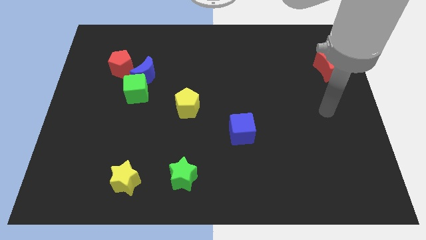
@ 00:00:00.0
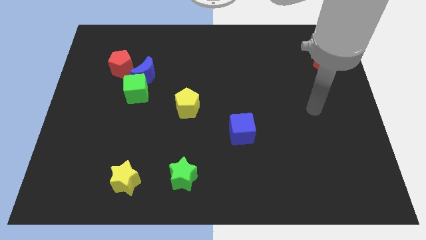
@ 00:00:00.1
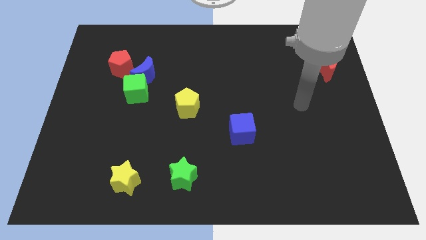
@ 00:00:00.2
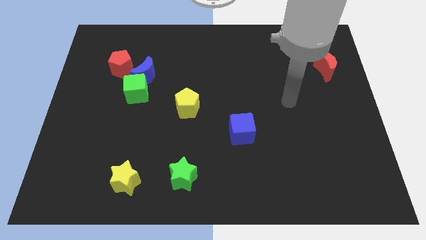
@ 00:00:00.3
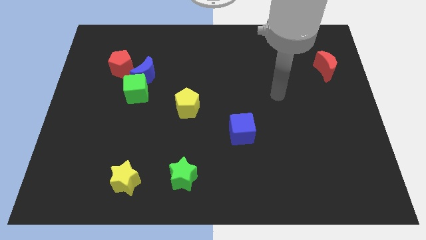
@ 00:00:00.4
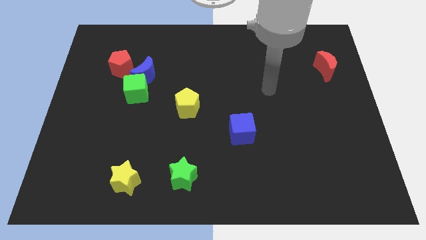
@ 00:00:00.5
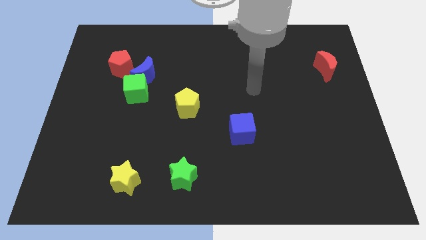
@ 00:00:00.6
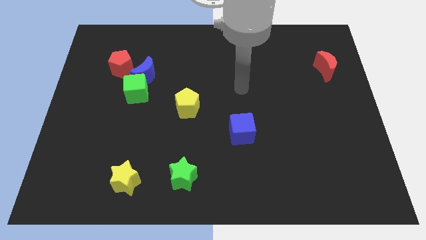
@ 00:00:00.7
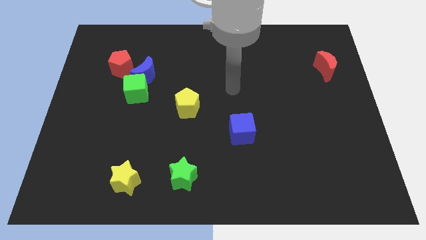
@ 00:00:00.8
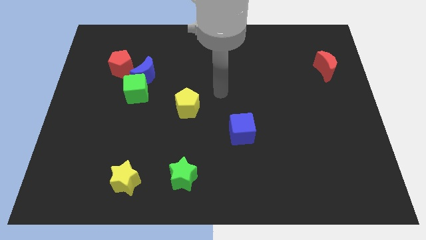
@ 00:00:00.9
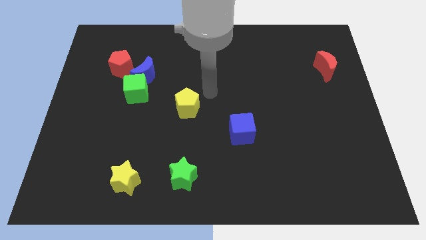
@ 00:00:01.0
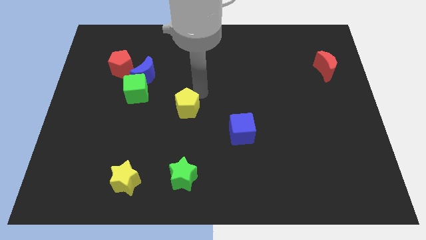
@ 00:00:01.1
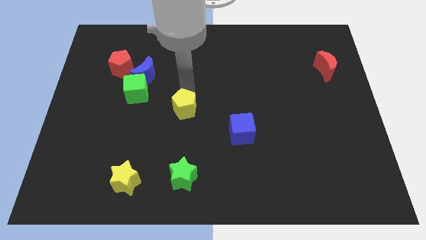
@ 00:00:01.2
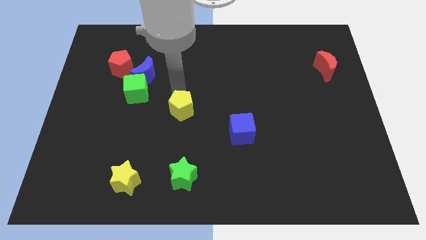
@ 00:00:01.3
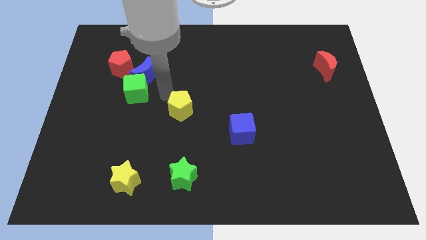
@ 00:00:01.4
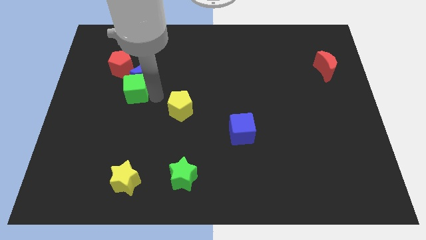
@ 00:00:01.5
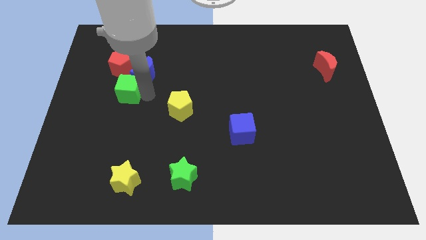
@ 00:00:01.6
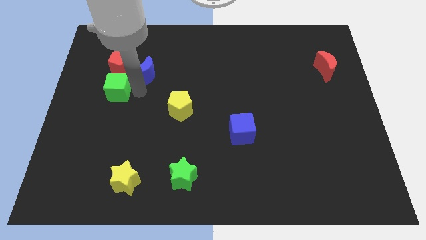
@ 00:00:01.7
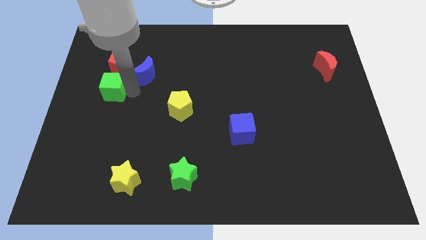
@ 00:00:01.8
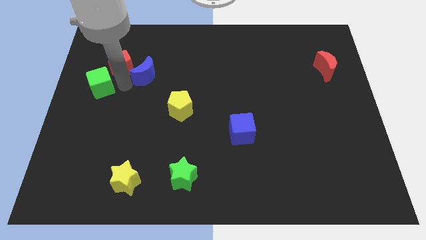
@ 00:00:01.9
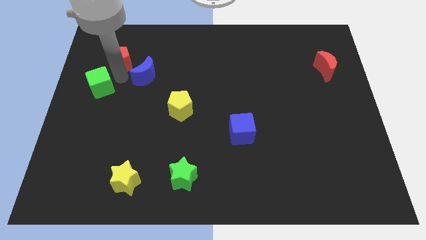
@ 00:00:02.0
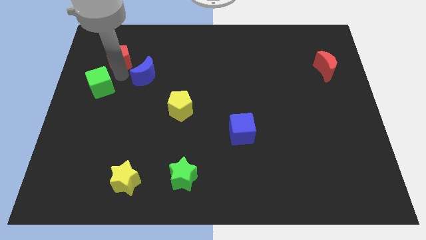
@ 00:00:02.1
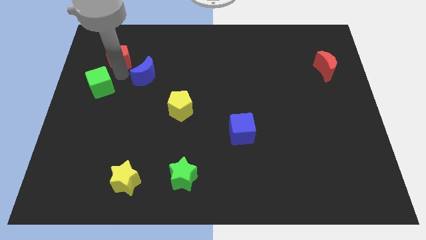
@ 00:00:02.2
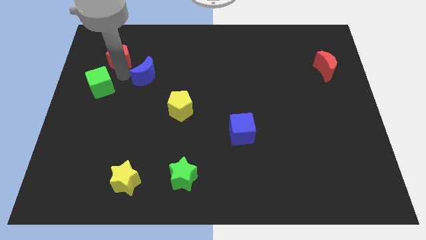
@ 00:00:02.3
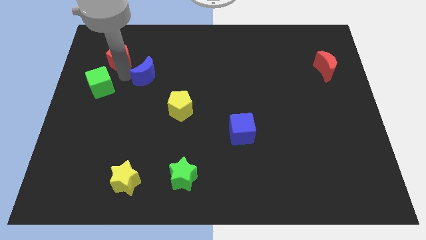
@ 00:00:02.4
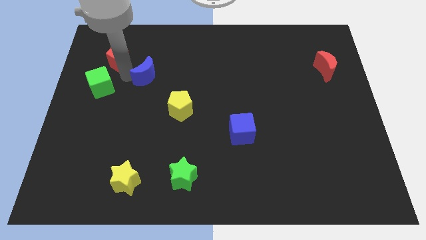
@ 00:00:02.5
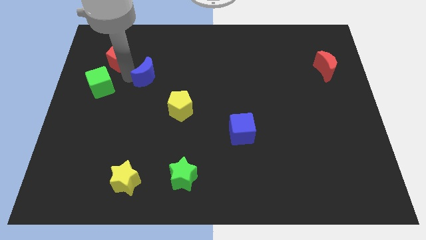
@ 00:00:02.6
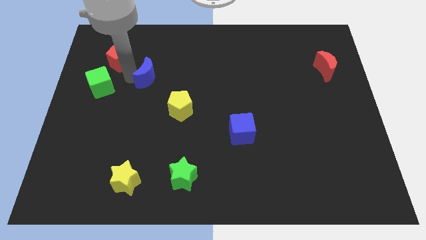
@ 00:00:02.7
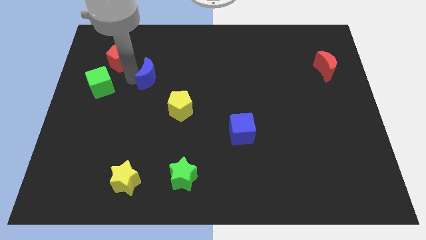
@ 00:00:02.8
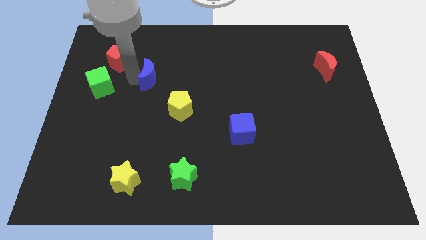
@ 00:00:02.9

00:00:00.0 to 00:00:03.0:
pull the blue moon apart from the green cube and red pentagon

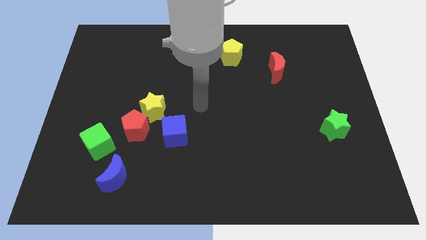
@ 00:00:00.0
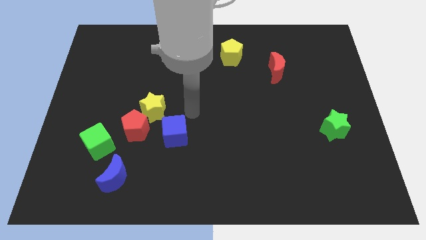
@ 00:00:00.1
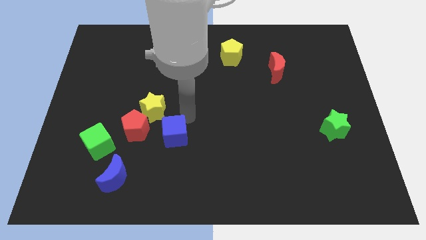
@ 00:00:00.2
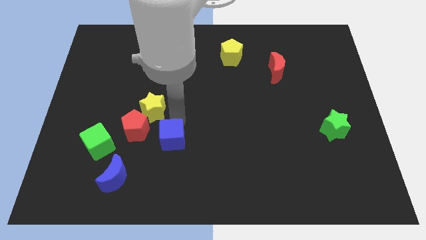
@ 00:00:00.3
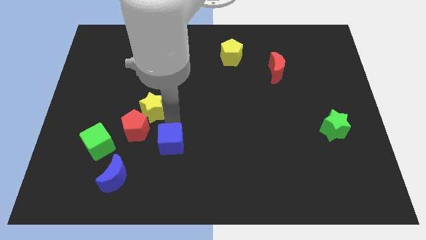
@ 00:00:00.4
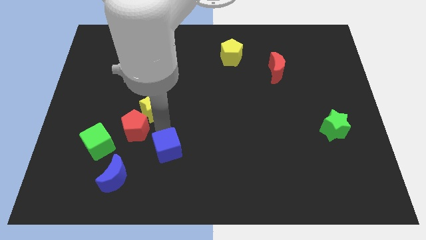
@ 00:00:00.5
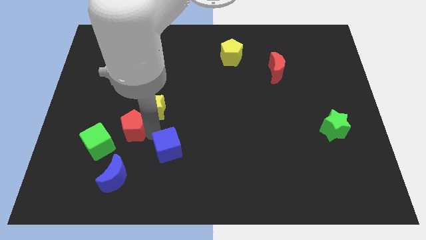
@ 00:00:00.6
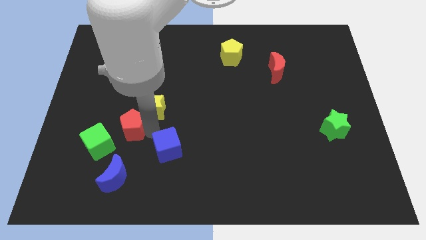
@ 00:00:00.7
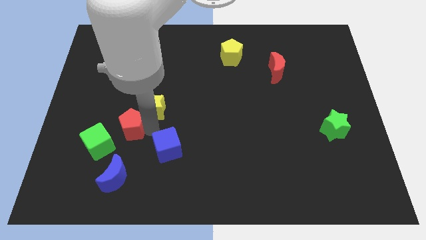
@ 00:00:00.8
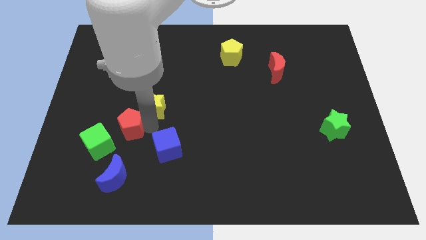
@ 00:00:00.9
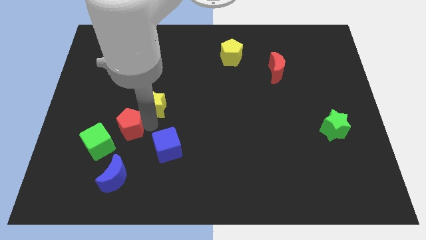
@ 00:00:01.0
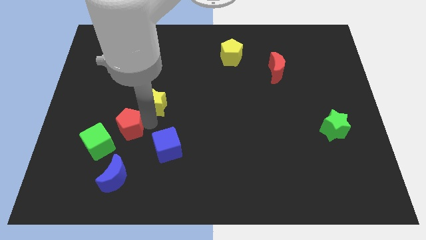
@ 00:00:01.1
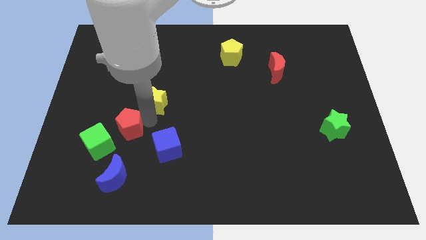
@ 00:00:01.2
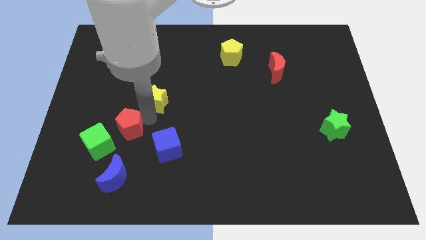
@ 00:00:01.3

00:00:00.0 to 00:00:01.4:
separate the yellow star from the red pentagon and blue cube

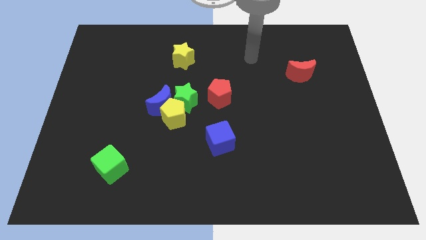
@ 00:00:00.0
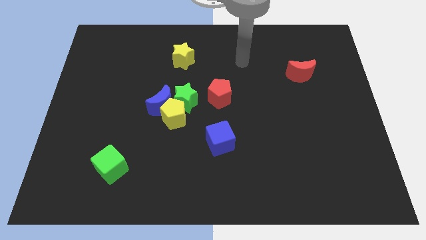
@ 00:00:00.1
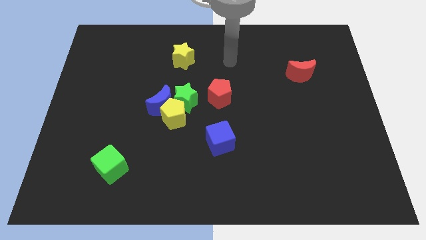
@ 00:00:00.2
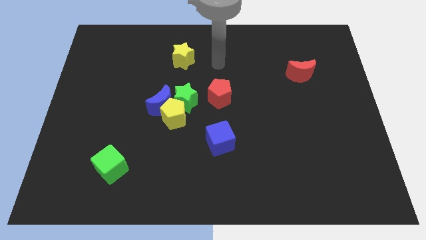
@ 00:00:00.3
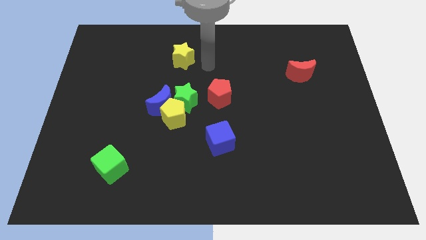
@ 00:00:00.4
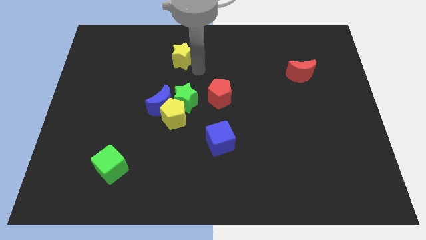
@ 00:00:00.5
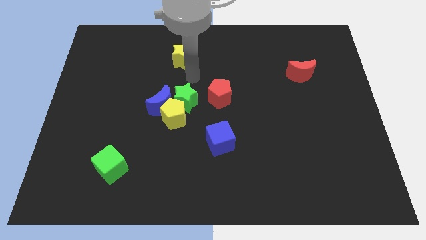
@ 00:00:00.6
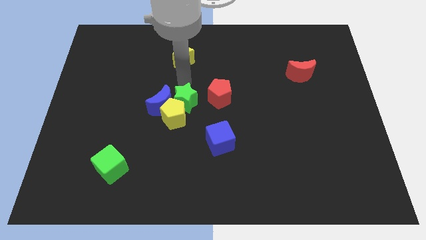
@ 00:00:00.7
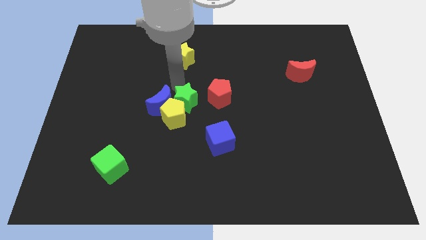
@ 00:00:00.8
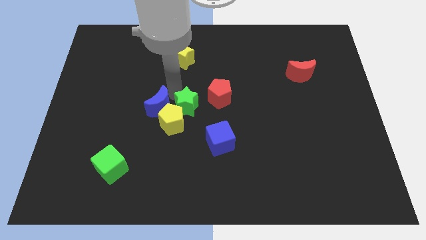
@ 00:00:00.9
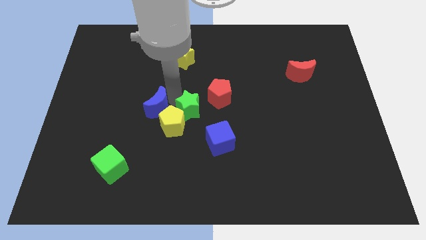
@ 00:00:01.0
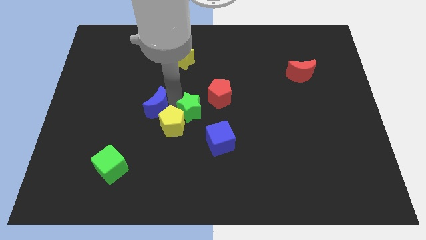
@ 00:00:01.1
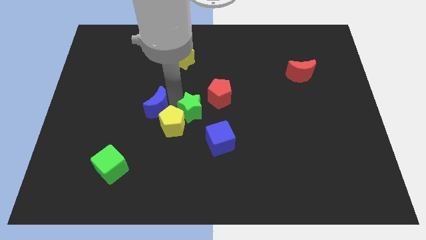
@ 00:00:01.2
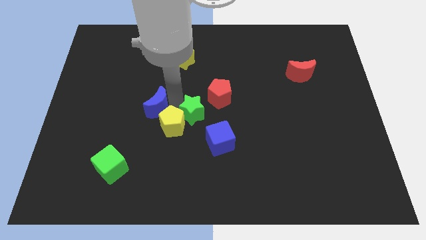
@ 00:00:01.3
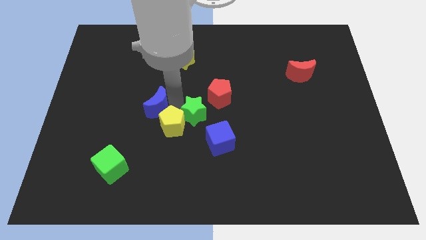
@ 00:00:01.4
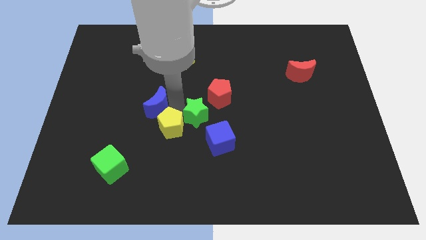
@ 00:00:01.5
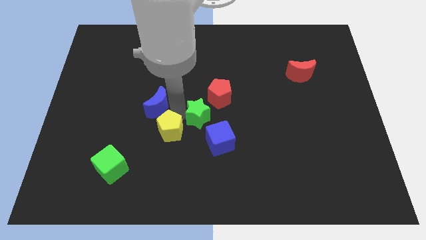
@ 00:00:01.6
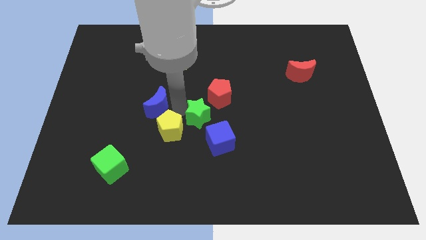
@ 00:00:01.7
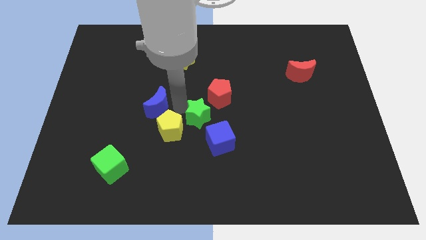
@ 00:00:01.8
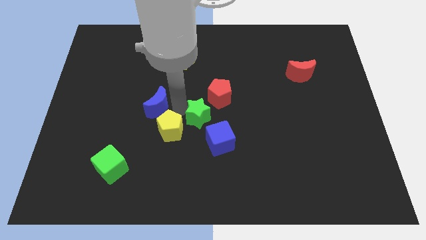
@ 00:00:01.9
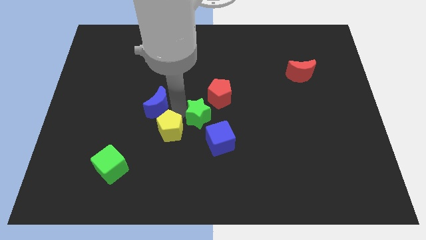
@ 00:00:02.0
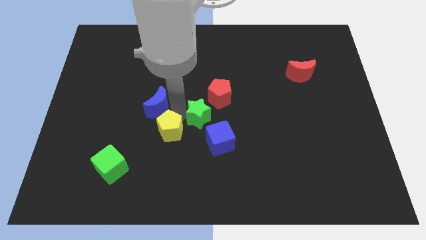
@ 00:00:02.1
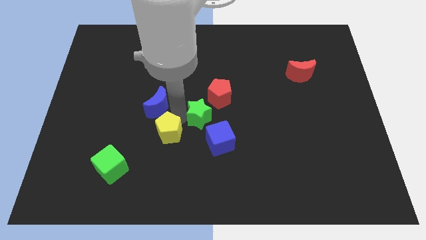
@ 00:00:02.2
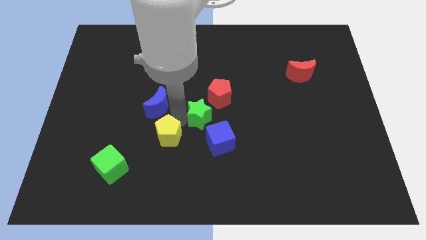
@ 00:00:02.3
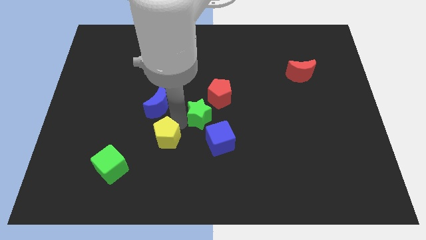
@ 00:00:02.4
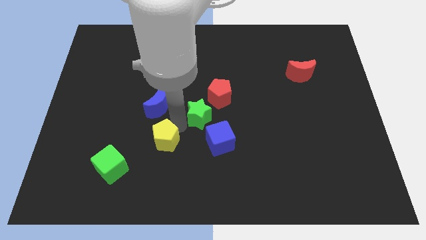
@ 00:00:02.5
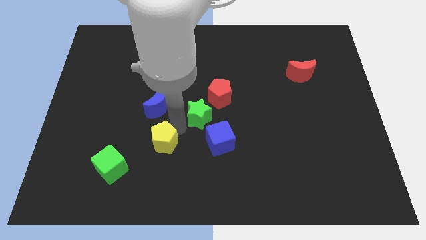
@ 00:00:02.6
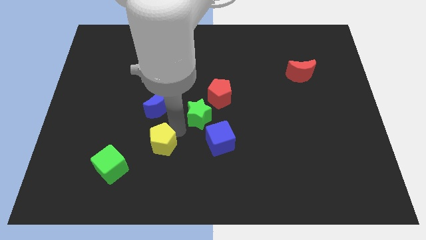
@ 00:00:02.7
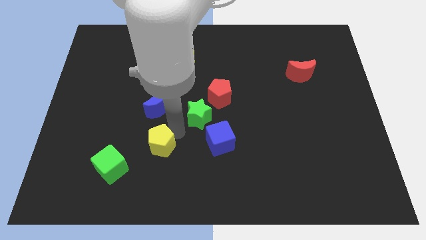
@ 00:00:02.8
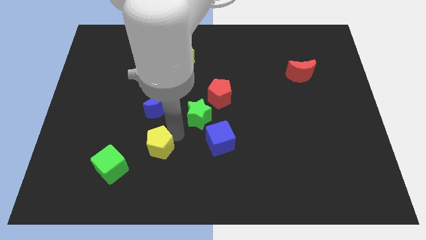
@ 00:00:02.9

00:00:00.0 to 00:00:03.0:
move the yellow pentagon away from the blue moon and green star

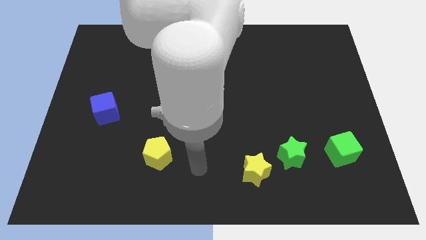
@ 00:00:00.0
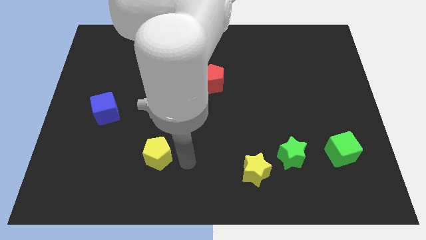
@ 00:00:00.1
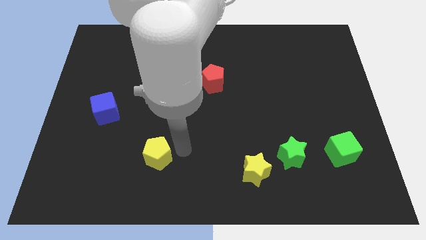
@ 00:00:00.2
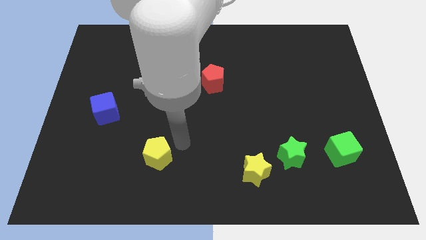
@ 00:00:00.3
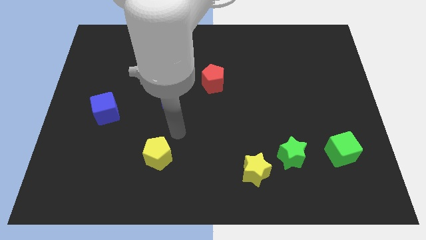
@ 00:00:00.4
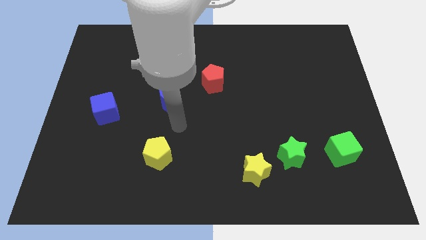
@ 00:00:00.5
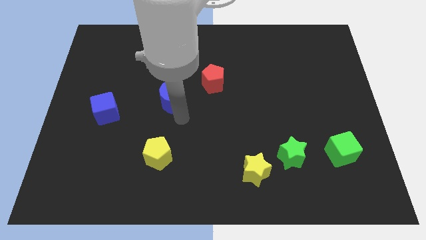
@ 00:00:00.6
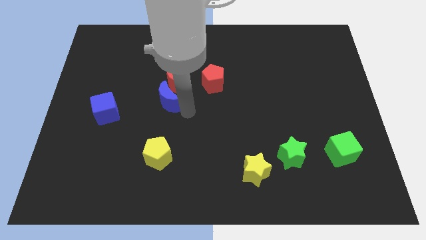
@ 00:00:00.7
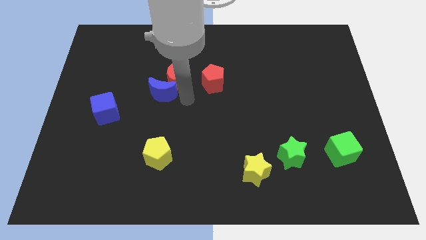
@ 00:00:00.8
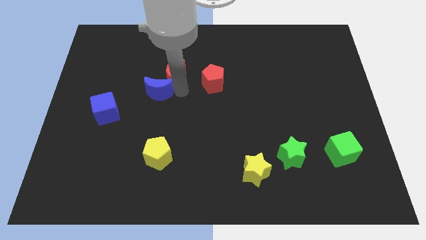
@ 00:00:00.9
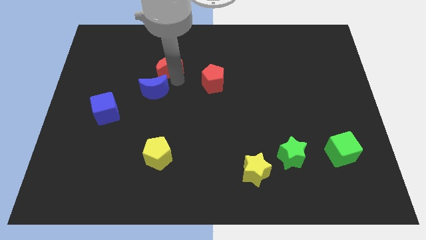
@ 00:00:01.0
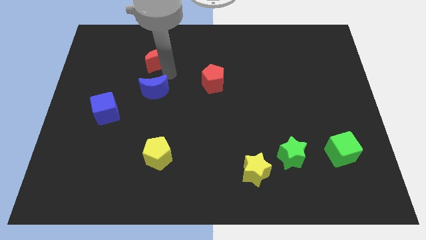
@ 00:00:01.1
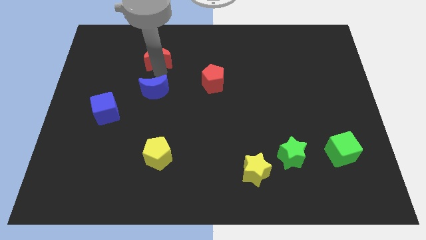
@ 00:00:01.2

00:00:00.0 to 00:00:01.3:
move the blue moon away from the red moon

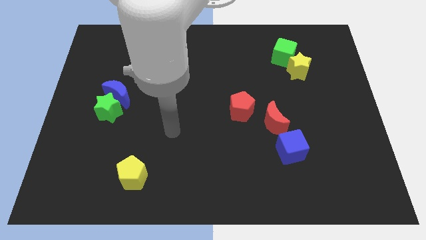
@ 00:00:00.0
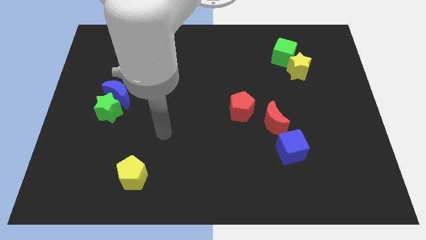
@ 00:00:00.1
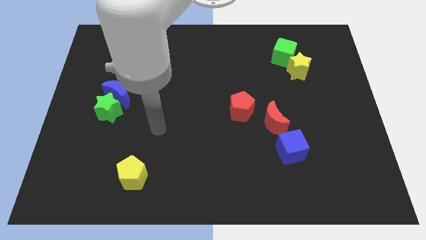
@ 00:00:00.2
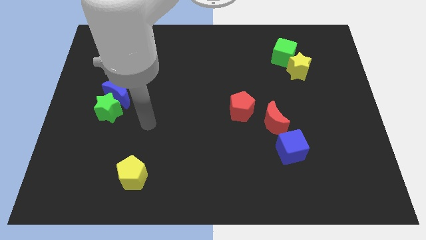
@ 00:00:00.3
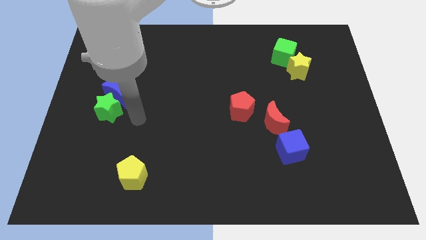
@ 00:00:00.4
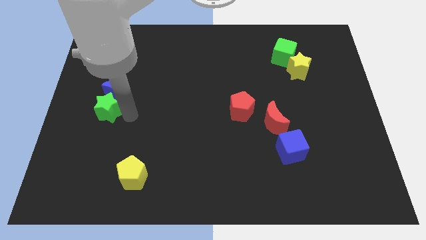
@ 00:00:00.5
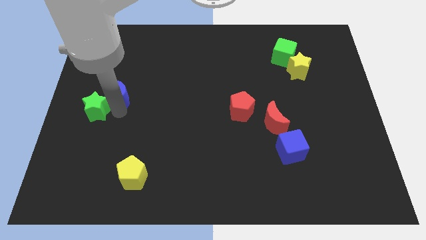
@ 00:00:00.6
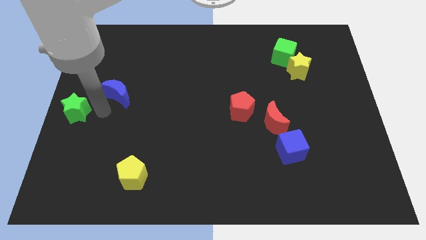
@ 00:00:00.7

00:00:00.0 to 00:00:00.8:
move the blue moon away from the green star
